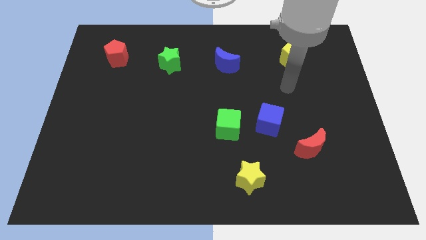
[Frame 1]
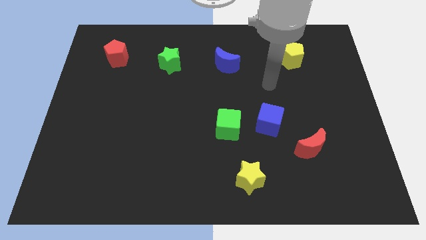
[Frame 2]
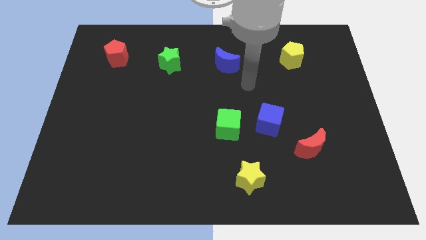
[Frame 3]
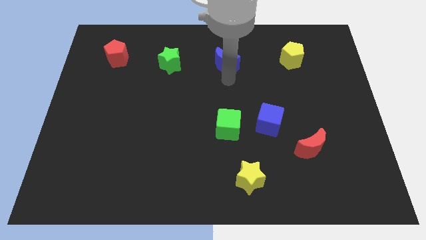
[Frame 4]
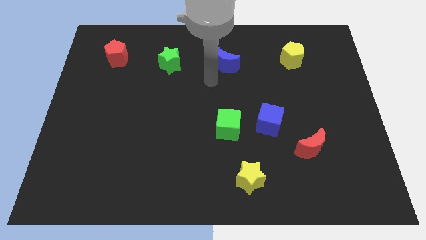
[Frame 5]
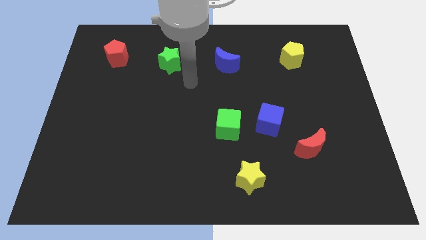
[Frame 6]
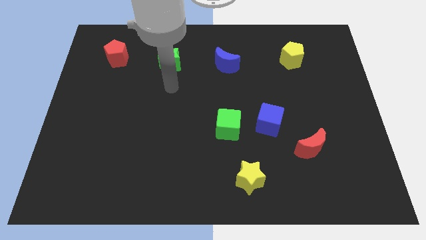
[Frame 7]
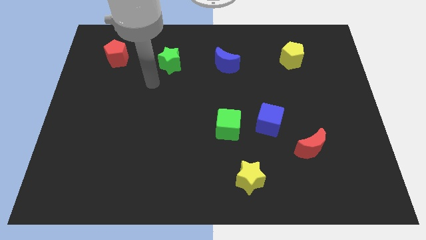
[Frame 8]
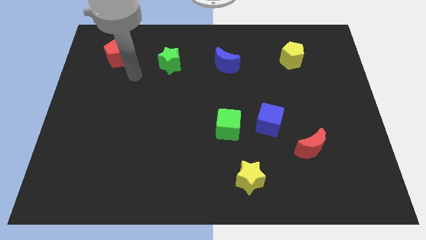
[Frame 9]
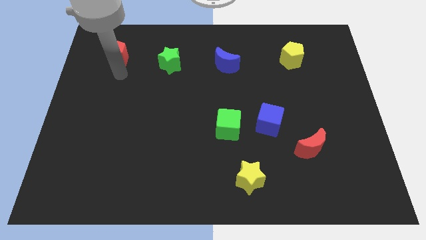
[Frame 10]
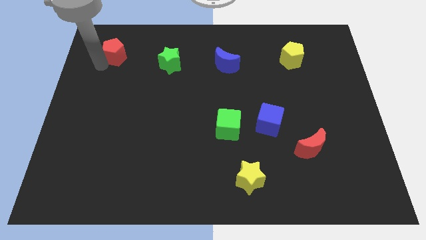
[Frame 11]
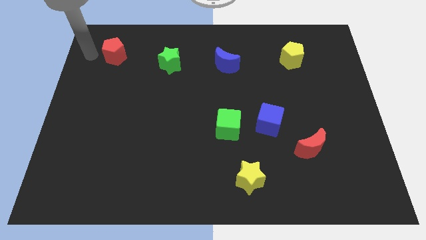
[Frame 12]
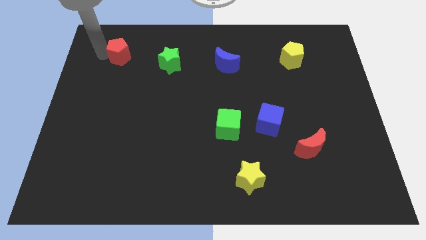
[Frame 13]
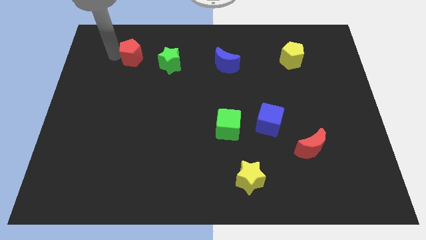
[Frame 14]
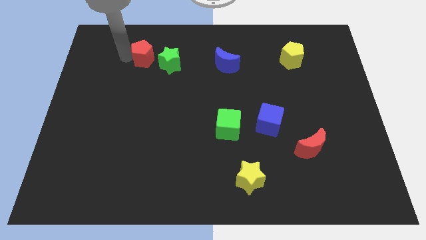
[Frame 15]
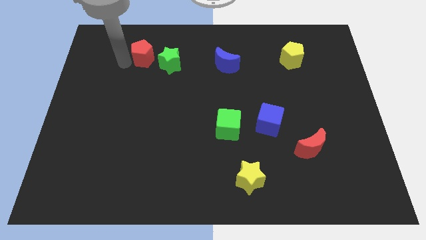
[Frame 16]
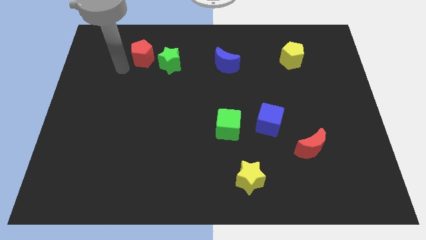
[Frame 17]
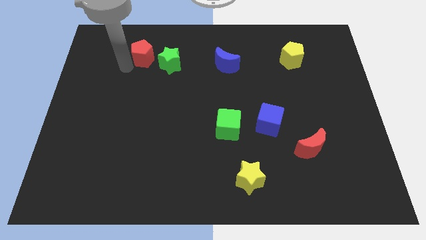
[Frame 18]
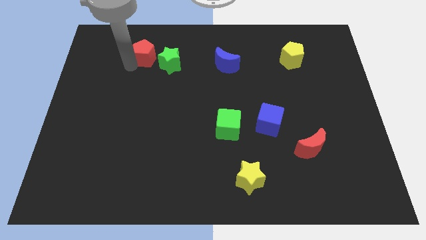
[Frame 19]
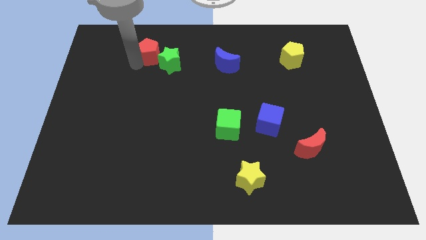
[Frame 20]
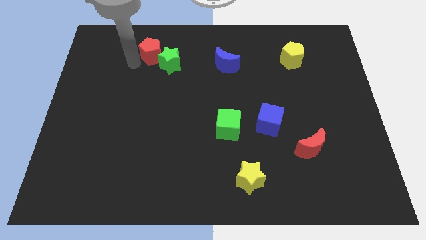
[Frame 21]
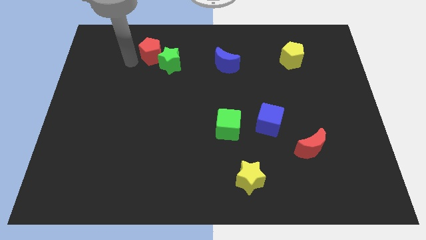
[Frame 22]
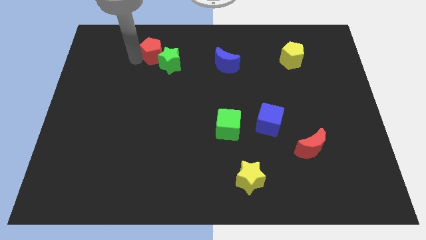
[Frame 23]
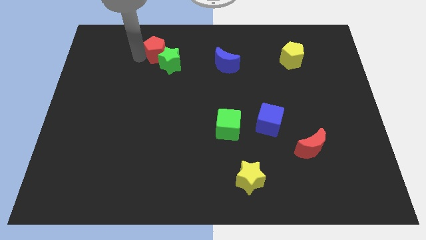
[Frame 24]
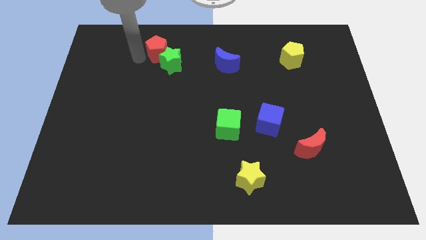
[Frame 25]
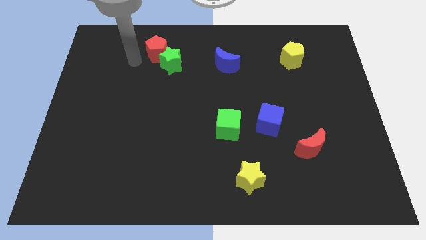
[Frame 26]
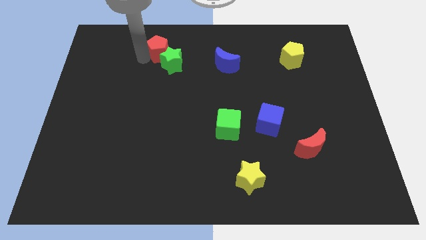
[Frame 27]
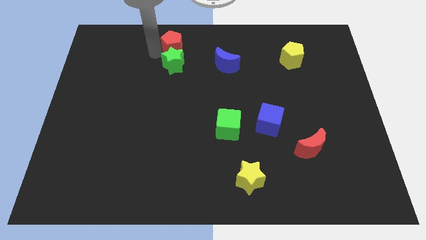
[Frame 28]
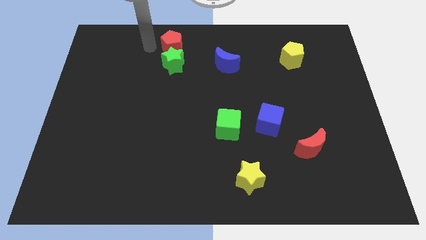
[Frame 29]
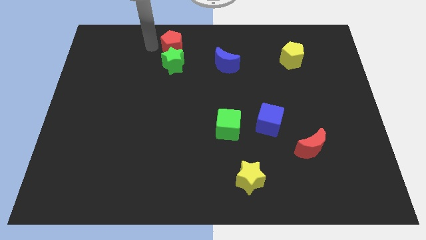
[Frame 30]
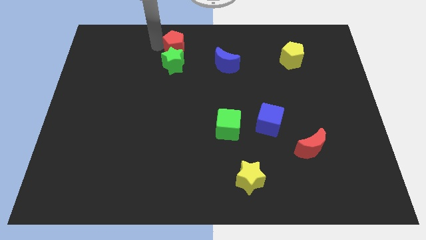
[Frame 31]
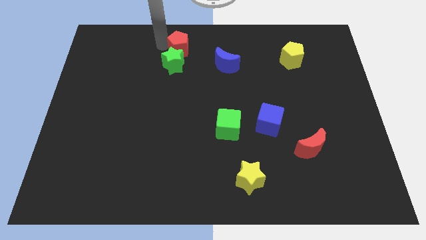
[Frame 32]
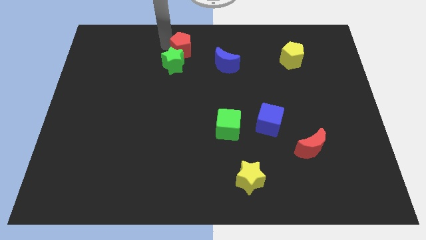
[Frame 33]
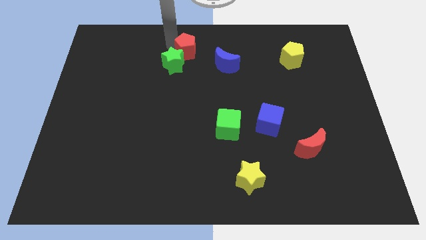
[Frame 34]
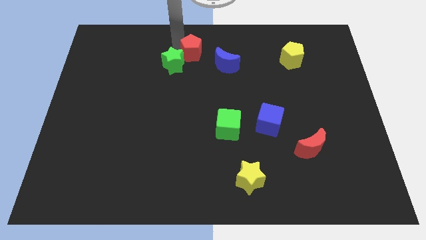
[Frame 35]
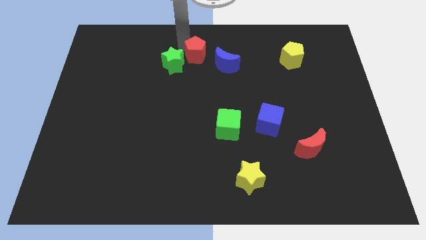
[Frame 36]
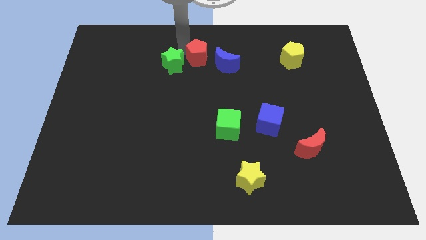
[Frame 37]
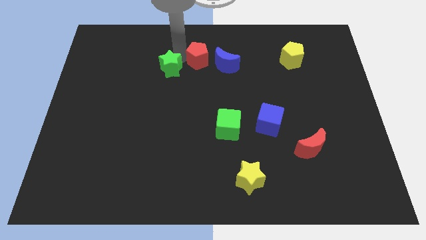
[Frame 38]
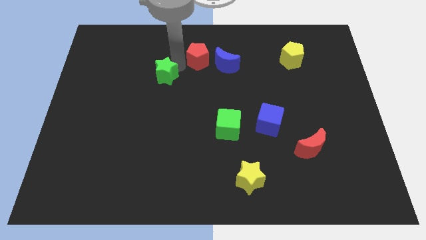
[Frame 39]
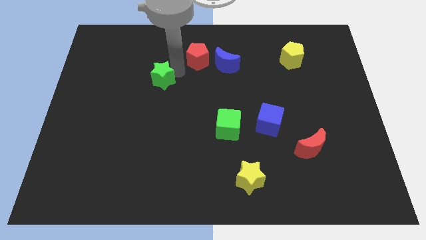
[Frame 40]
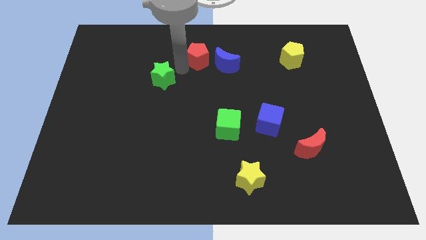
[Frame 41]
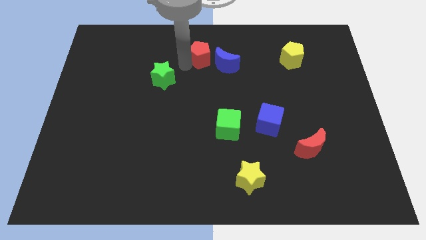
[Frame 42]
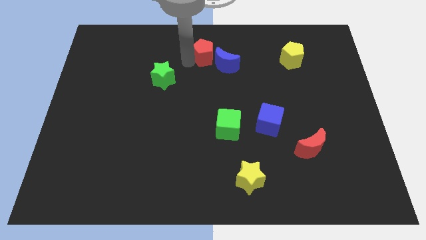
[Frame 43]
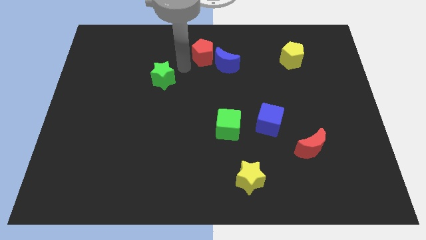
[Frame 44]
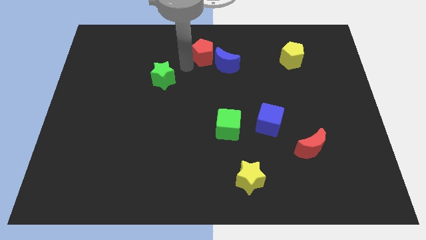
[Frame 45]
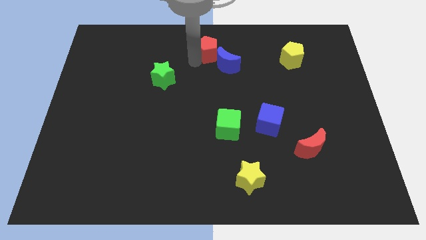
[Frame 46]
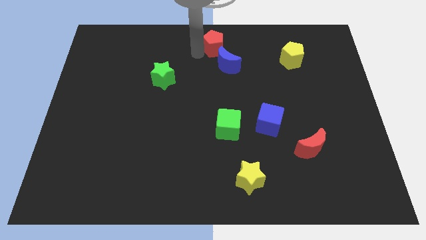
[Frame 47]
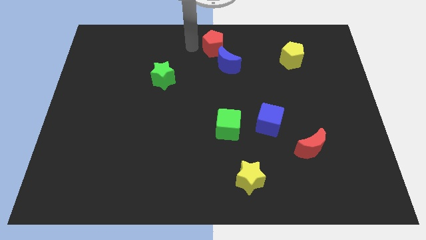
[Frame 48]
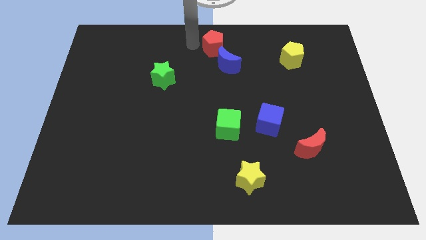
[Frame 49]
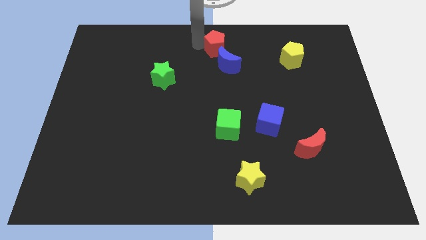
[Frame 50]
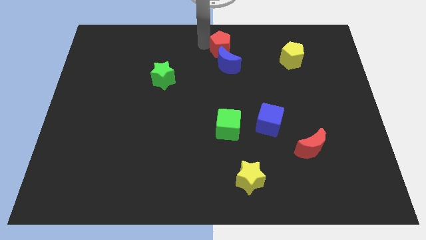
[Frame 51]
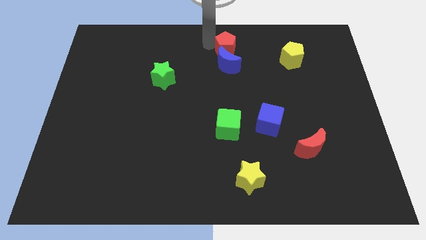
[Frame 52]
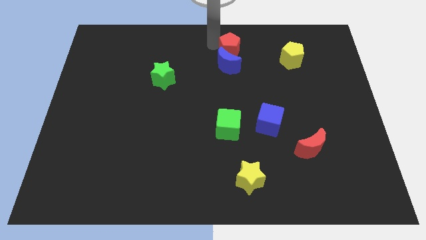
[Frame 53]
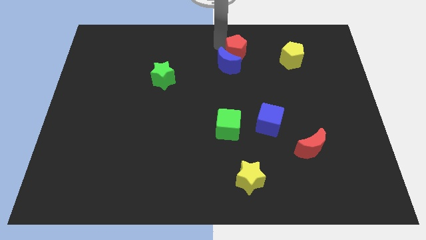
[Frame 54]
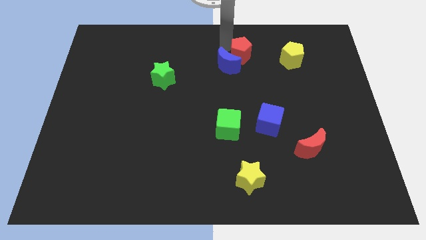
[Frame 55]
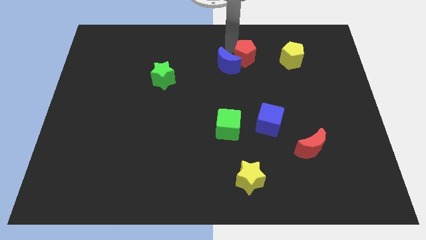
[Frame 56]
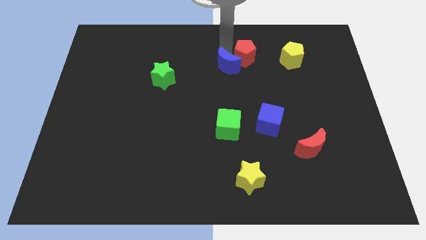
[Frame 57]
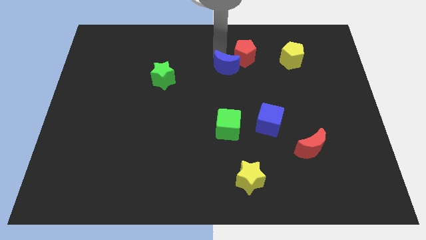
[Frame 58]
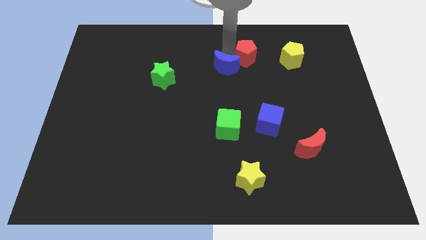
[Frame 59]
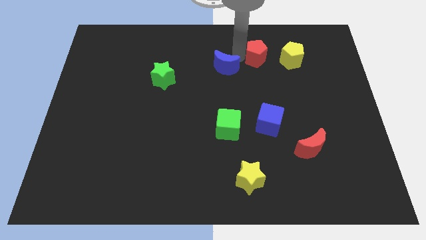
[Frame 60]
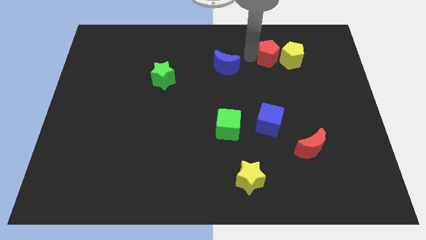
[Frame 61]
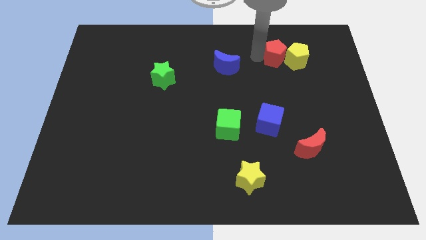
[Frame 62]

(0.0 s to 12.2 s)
put the red pentagon to the yellow pentagon
